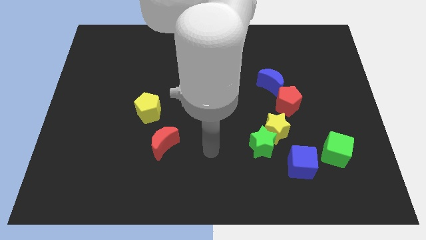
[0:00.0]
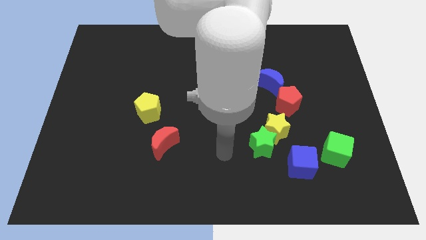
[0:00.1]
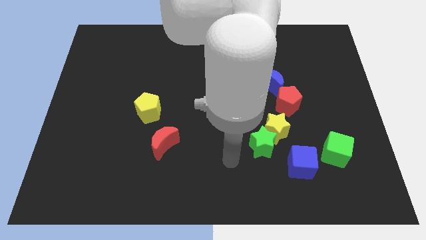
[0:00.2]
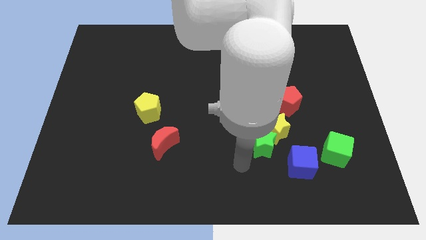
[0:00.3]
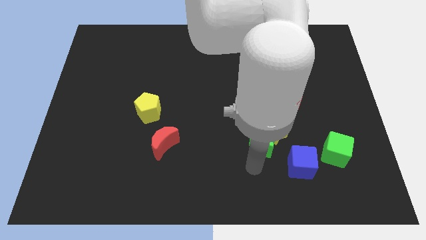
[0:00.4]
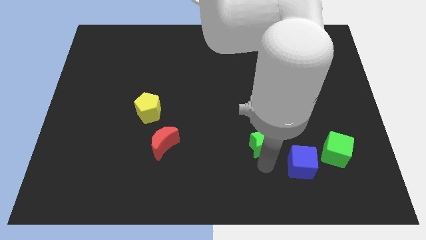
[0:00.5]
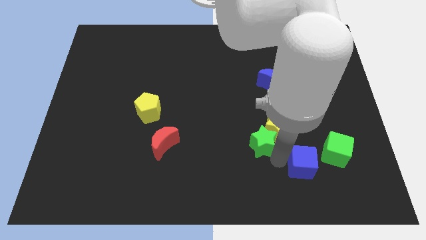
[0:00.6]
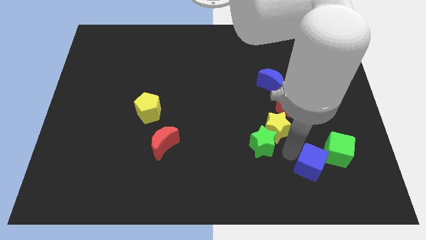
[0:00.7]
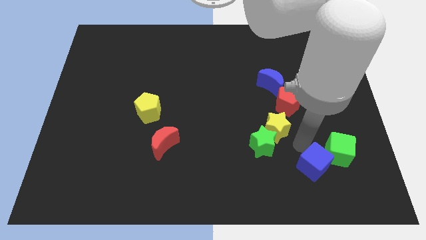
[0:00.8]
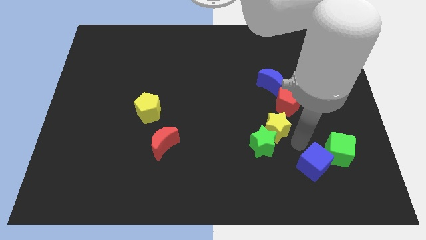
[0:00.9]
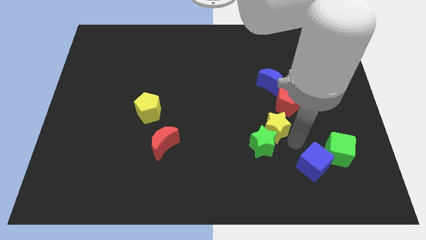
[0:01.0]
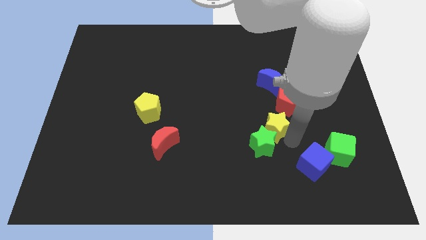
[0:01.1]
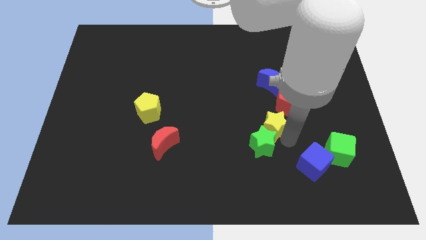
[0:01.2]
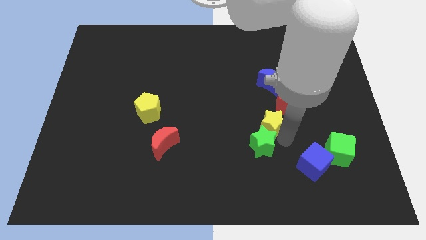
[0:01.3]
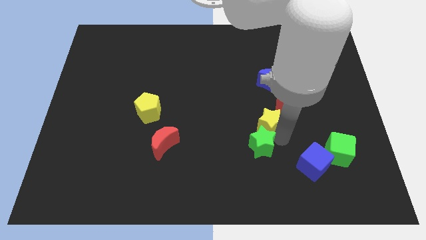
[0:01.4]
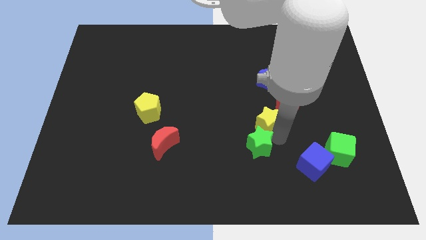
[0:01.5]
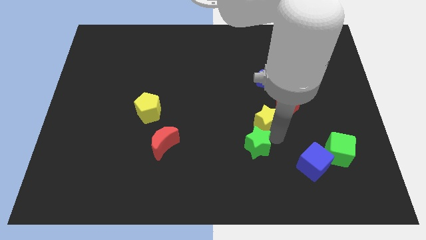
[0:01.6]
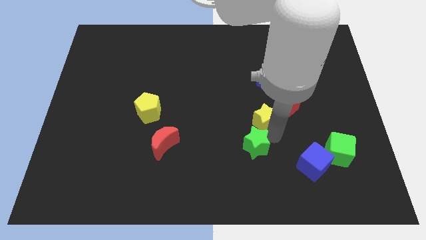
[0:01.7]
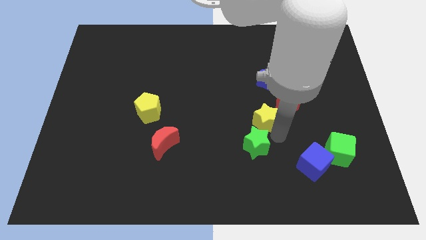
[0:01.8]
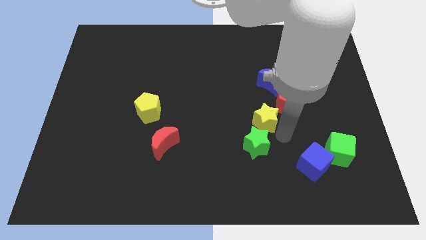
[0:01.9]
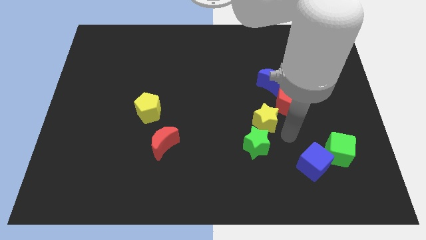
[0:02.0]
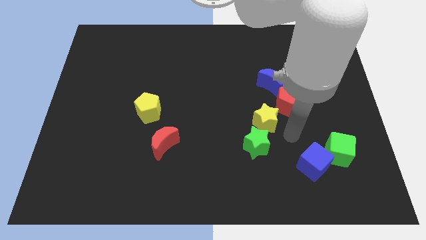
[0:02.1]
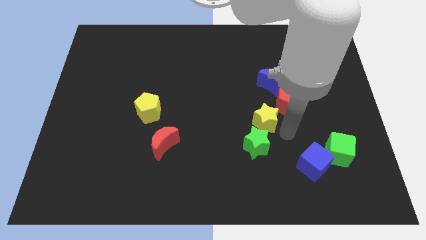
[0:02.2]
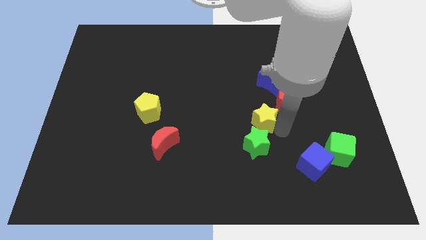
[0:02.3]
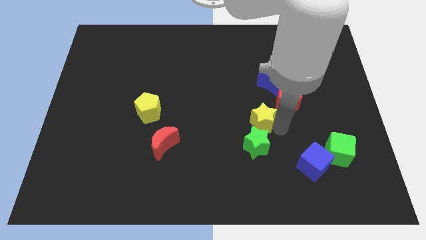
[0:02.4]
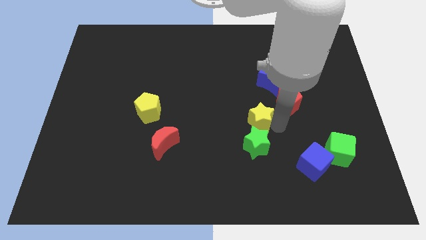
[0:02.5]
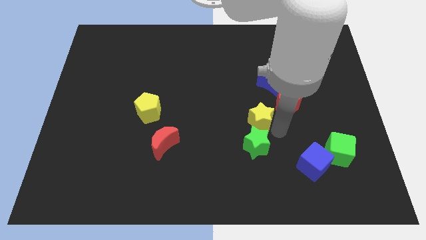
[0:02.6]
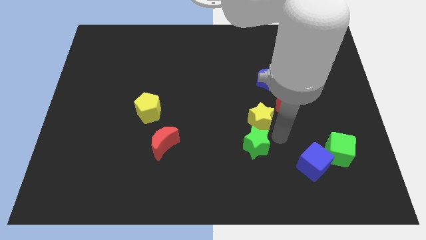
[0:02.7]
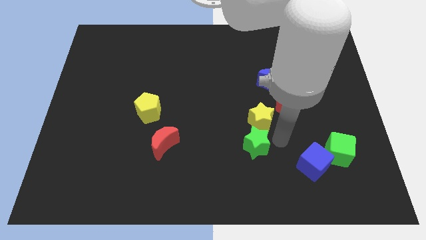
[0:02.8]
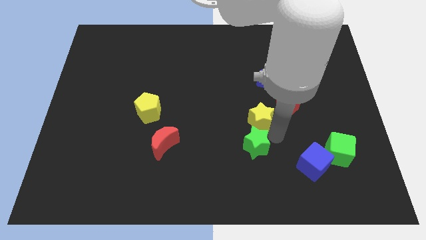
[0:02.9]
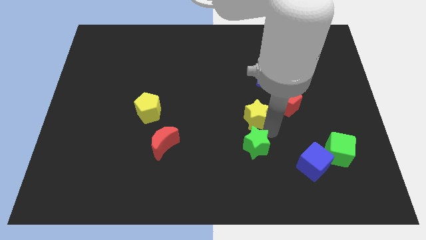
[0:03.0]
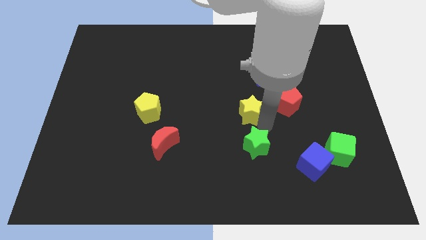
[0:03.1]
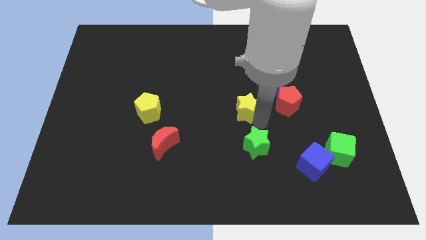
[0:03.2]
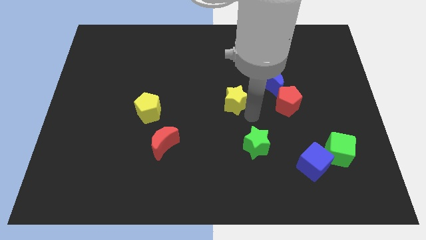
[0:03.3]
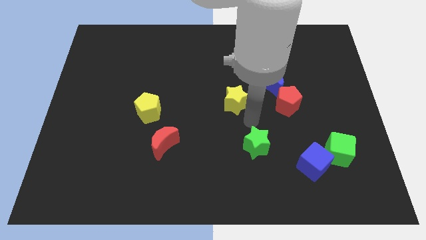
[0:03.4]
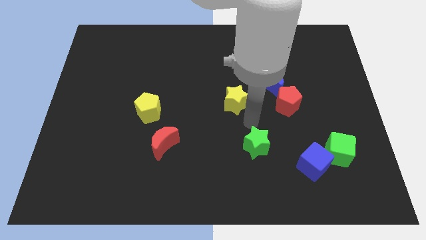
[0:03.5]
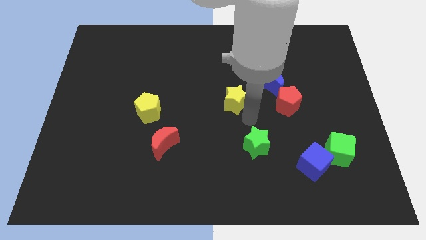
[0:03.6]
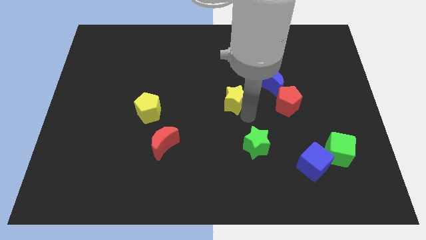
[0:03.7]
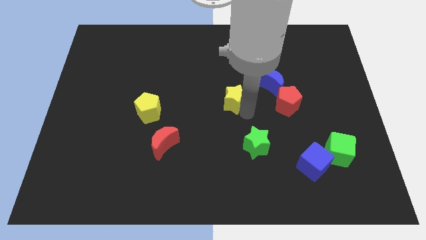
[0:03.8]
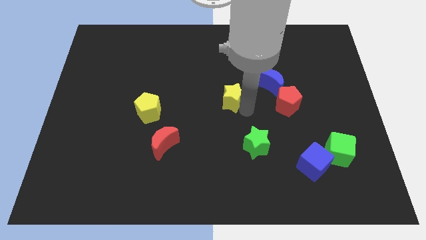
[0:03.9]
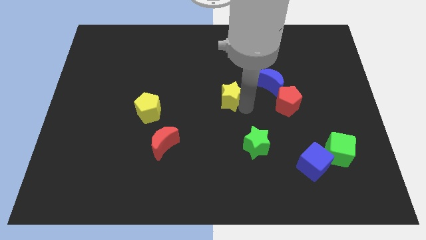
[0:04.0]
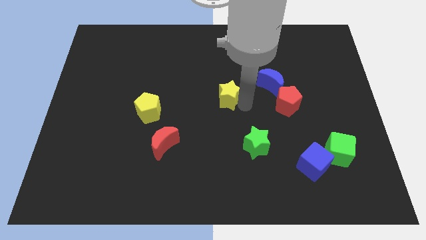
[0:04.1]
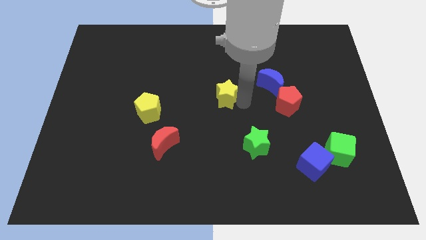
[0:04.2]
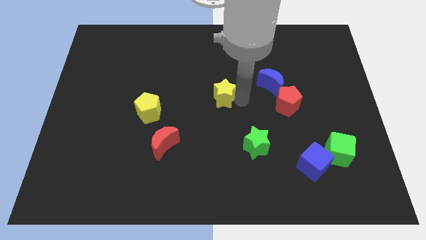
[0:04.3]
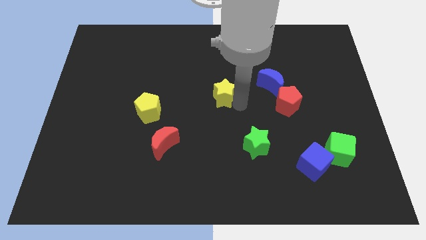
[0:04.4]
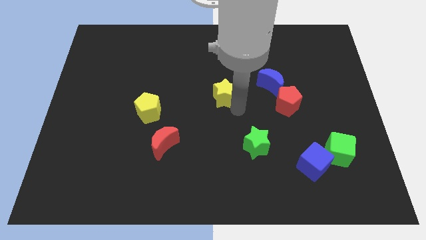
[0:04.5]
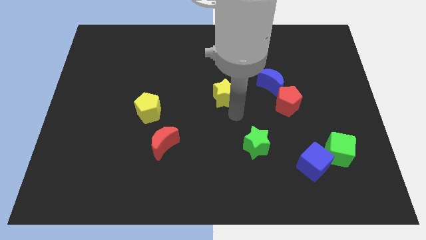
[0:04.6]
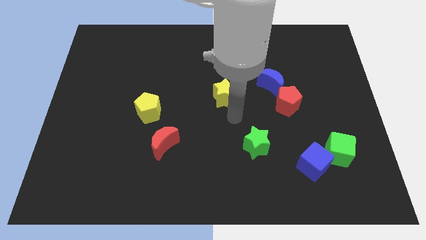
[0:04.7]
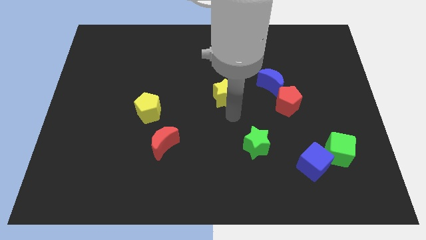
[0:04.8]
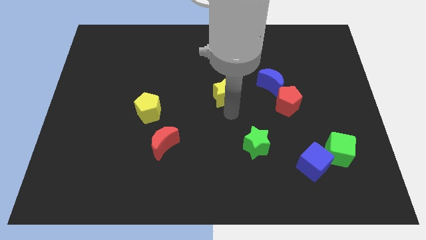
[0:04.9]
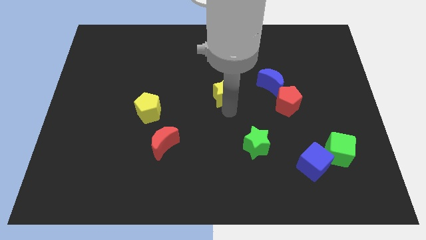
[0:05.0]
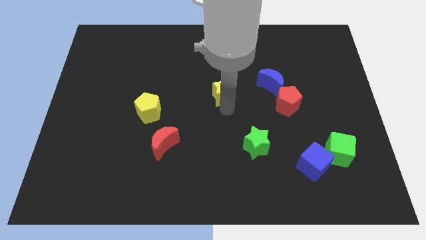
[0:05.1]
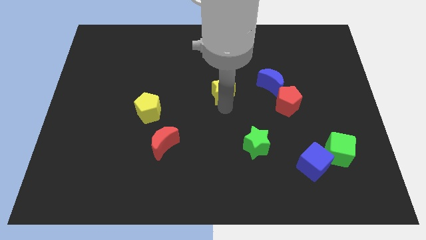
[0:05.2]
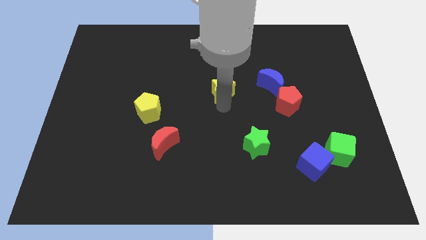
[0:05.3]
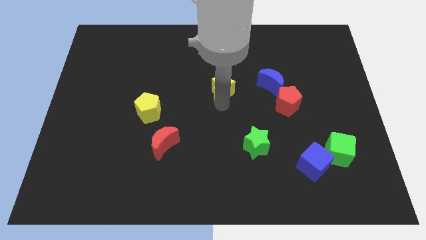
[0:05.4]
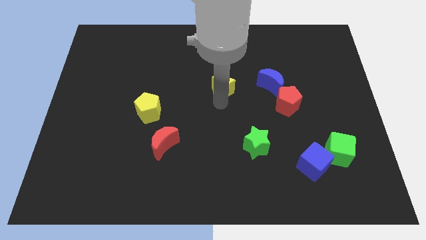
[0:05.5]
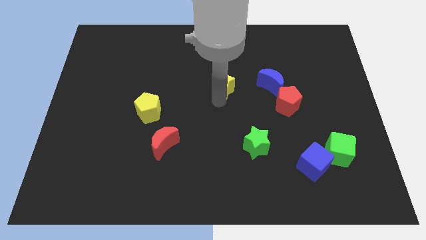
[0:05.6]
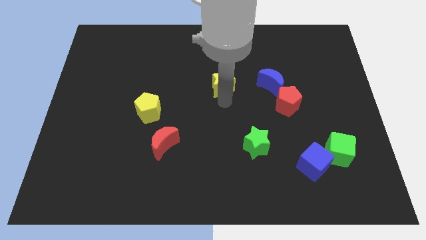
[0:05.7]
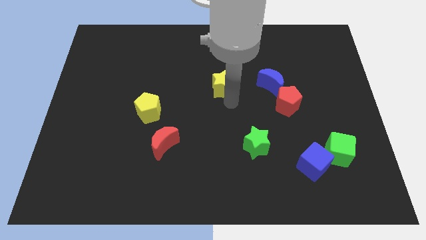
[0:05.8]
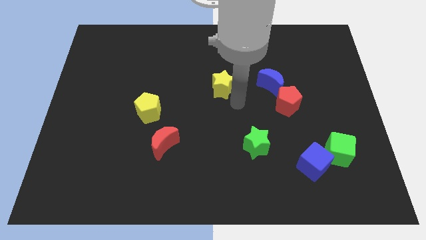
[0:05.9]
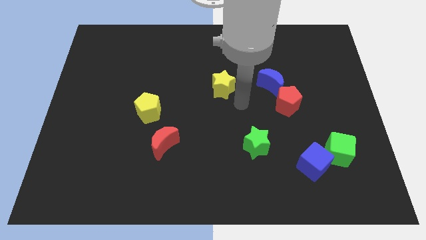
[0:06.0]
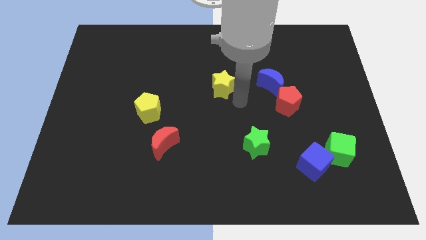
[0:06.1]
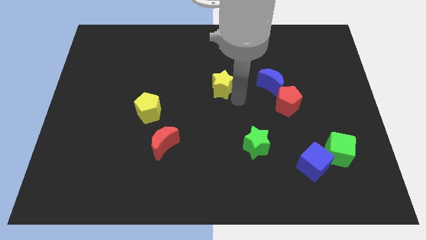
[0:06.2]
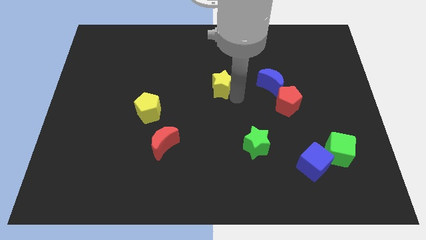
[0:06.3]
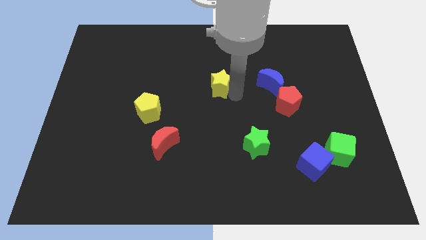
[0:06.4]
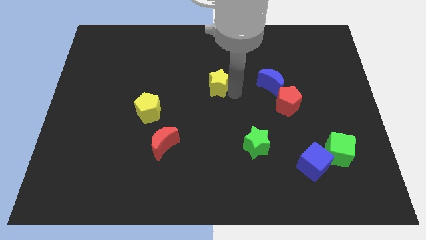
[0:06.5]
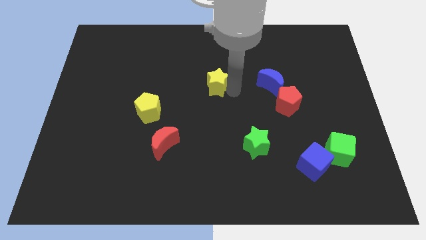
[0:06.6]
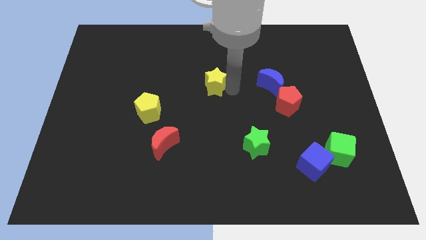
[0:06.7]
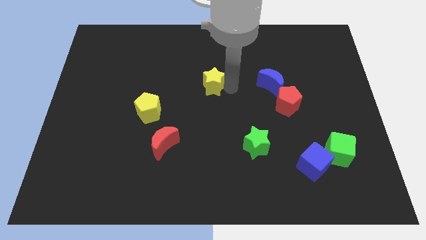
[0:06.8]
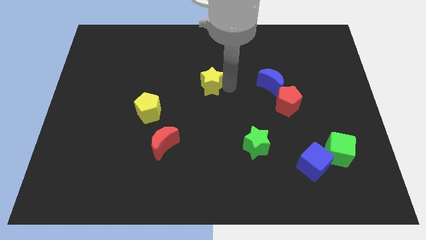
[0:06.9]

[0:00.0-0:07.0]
slide the yellow star upwards and then left

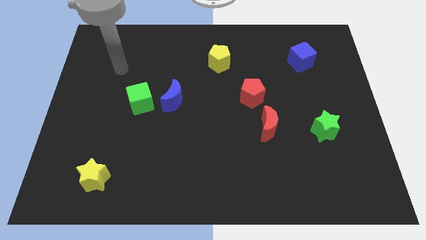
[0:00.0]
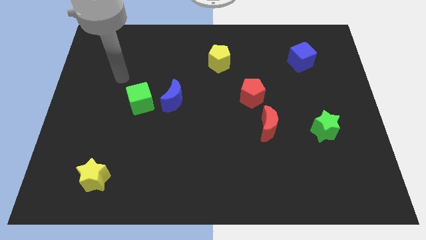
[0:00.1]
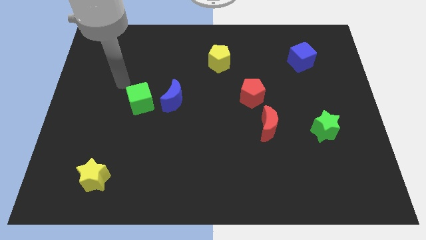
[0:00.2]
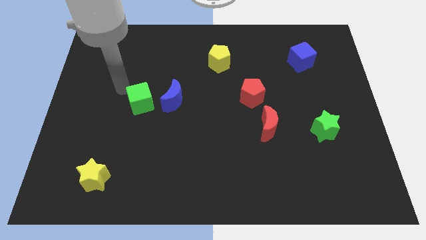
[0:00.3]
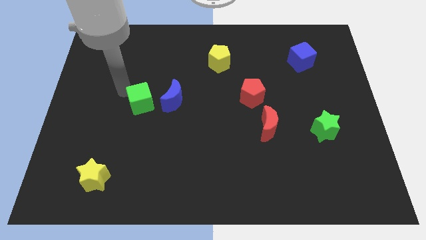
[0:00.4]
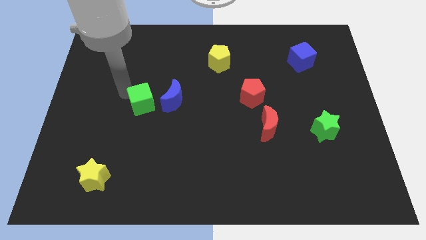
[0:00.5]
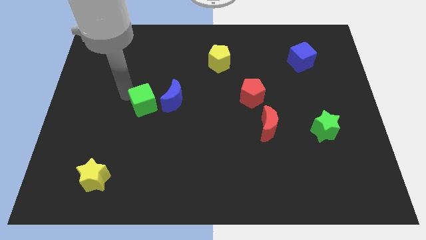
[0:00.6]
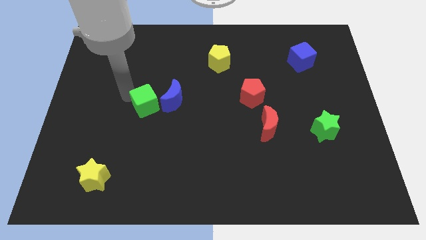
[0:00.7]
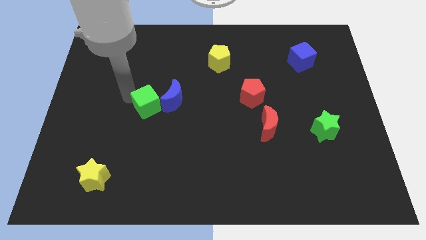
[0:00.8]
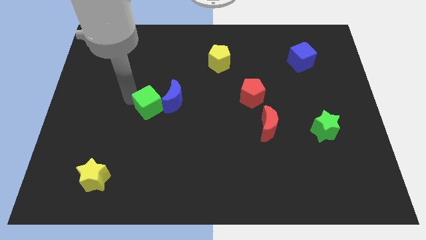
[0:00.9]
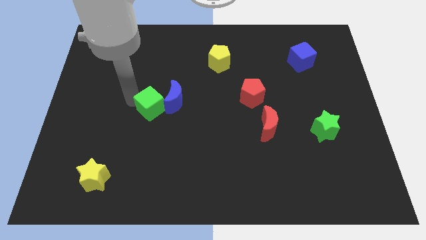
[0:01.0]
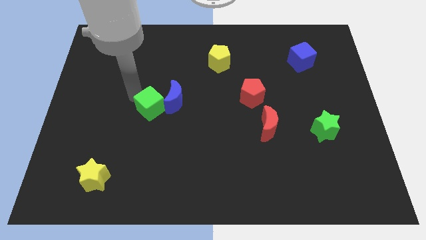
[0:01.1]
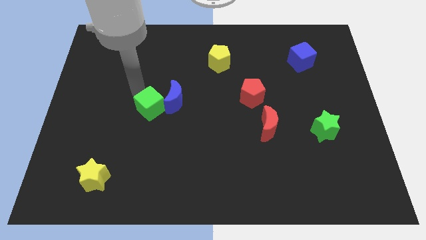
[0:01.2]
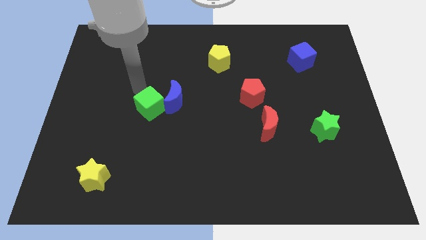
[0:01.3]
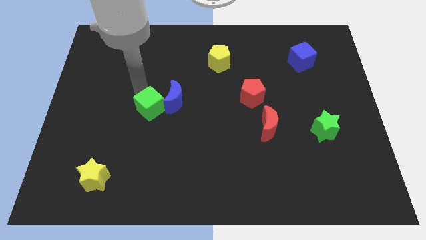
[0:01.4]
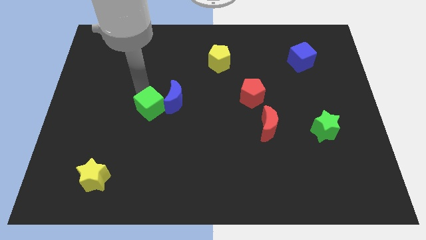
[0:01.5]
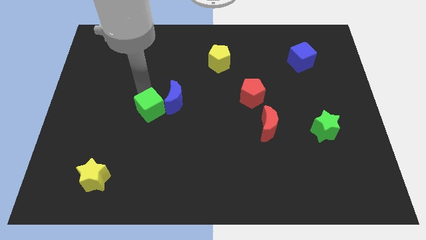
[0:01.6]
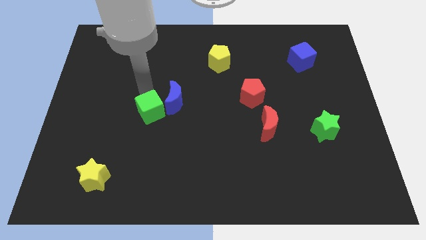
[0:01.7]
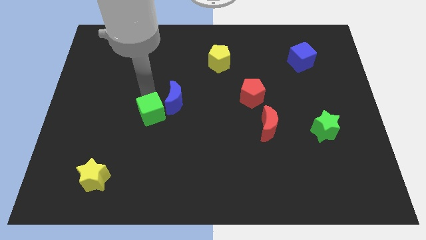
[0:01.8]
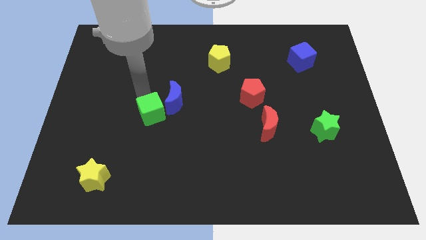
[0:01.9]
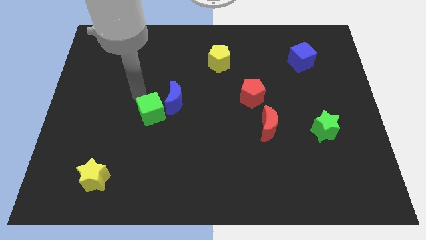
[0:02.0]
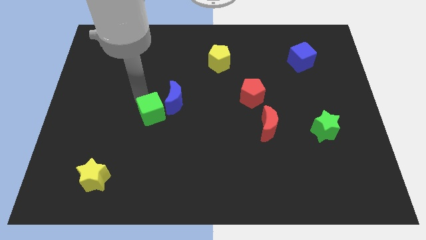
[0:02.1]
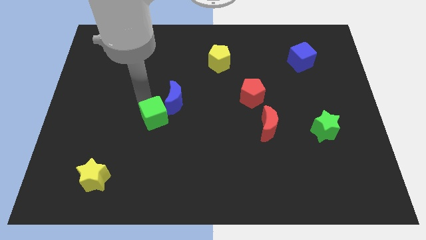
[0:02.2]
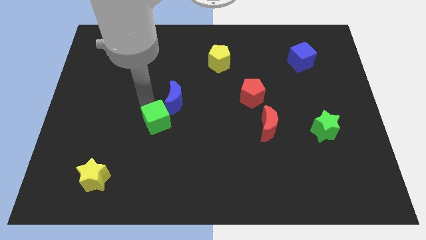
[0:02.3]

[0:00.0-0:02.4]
slightly move the green cube down and to the right diagonally
